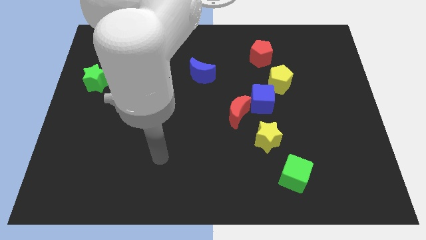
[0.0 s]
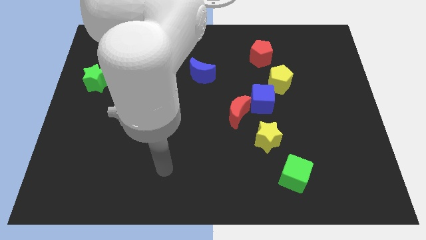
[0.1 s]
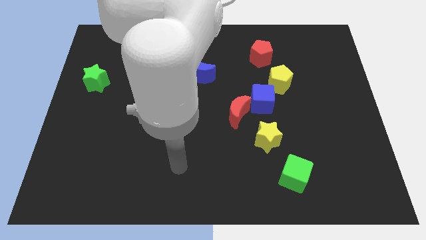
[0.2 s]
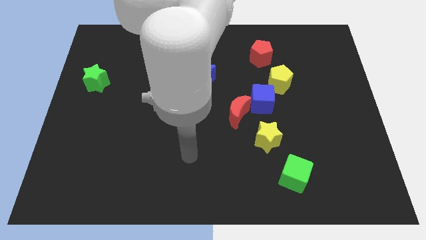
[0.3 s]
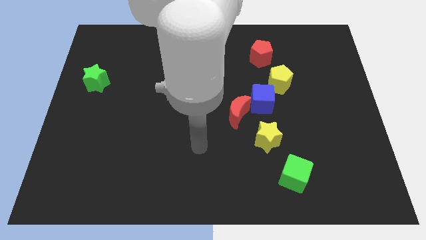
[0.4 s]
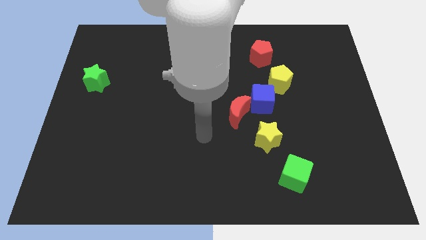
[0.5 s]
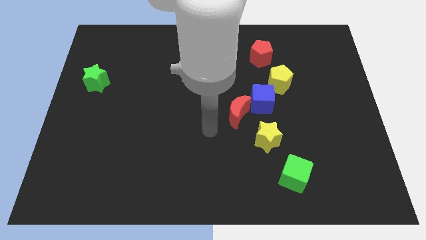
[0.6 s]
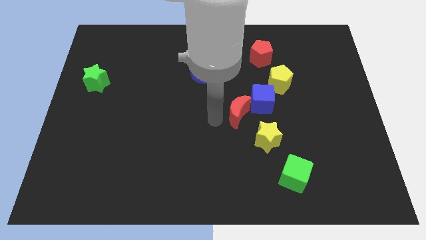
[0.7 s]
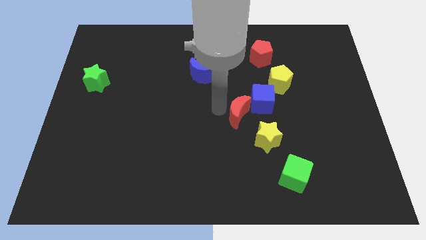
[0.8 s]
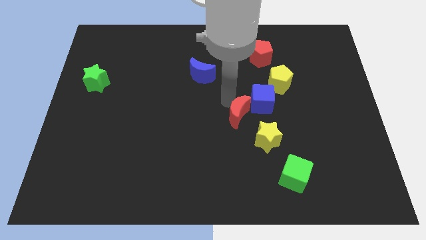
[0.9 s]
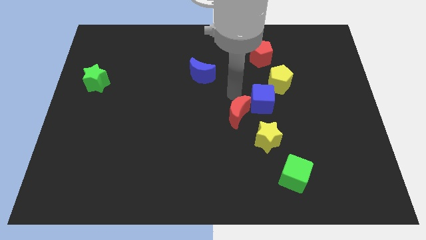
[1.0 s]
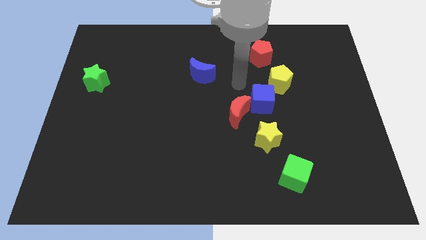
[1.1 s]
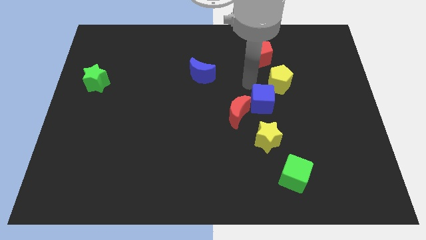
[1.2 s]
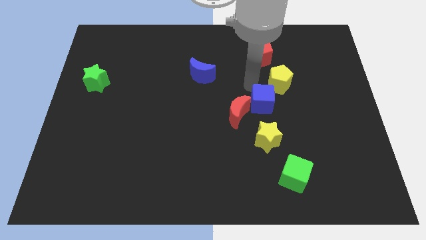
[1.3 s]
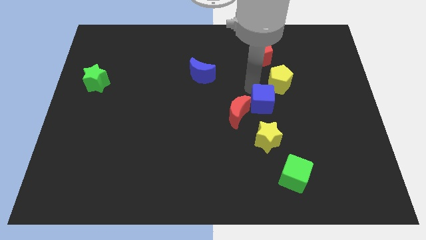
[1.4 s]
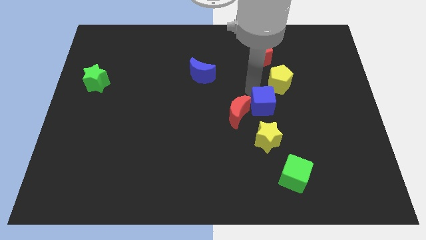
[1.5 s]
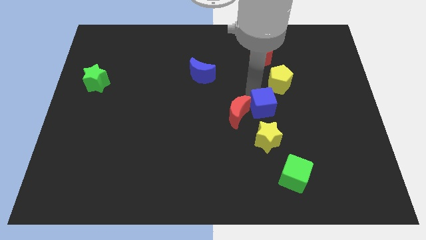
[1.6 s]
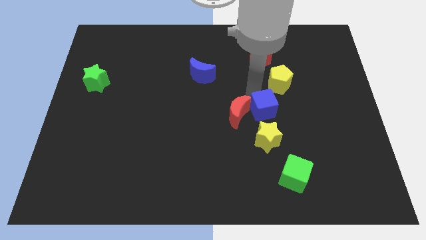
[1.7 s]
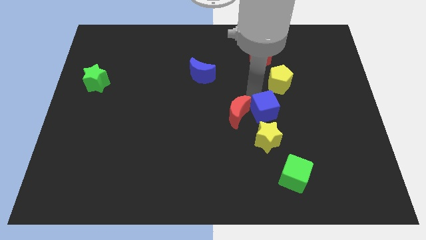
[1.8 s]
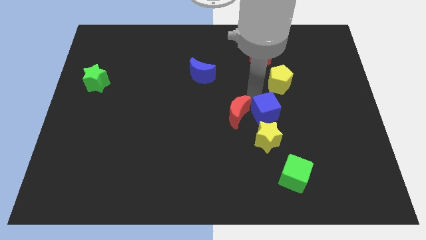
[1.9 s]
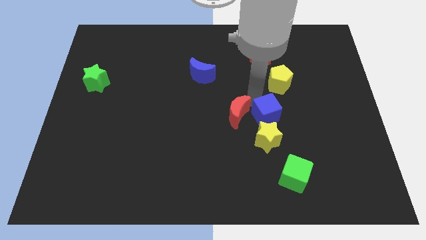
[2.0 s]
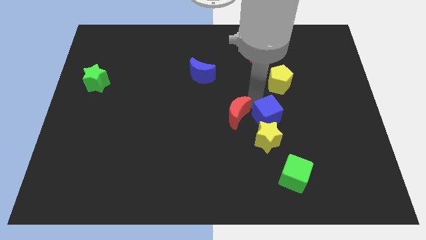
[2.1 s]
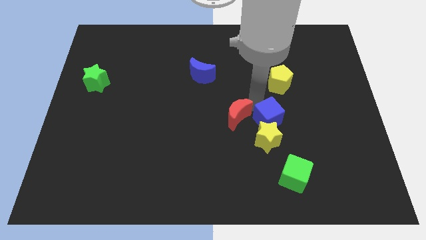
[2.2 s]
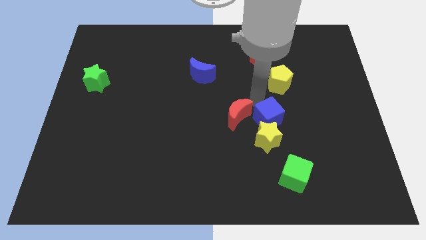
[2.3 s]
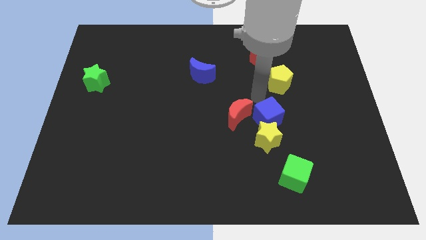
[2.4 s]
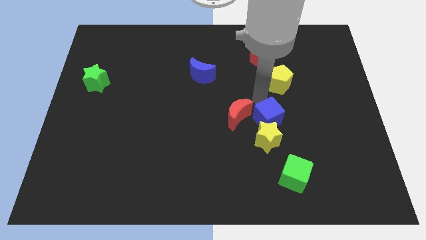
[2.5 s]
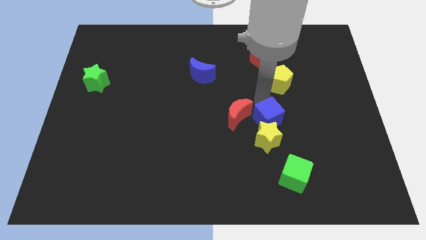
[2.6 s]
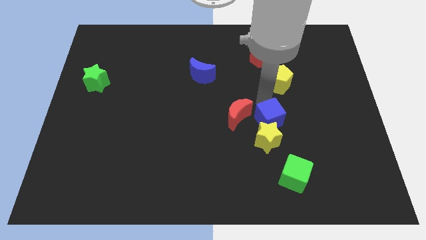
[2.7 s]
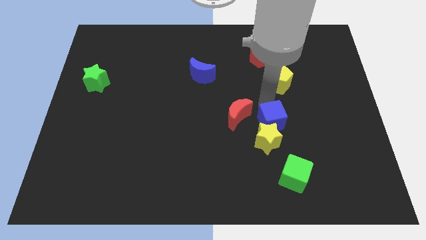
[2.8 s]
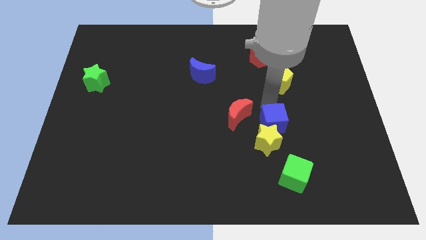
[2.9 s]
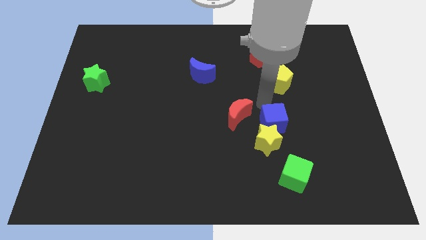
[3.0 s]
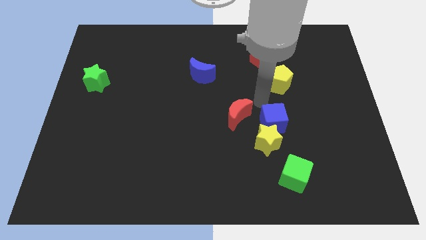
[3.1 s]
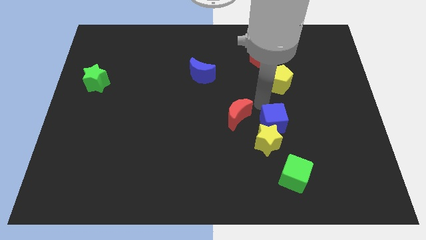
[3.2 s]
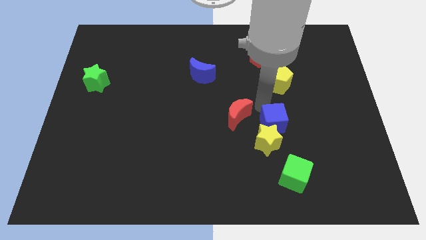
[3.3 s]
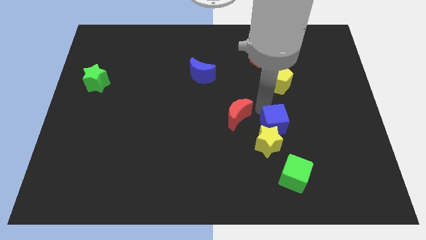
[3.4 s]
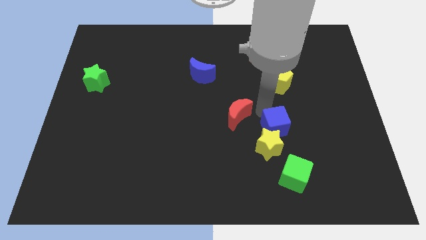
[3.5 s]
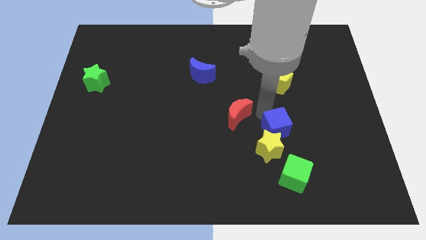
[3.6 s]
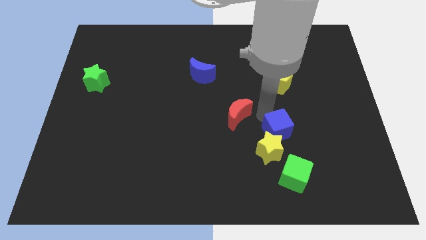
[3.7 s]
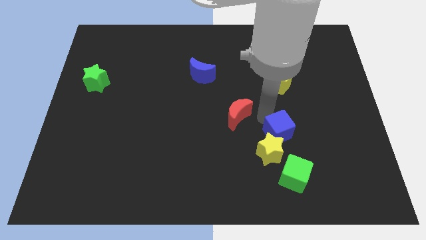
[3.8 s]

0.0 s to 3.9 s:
separate the blue cube from the red moon and yellow pentagon

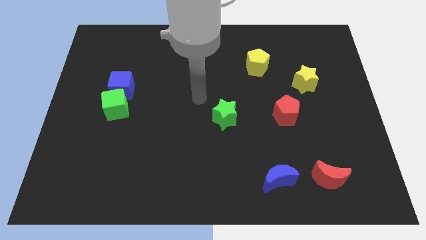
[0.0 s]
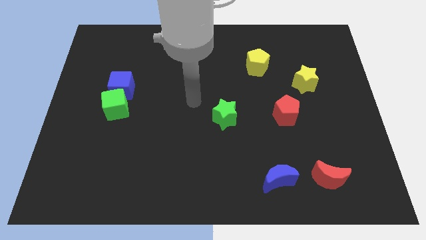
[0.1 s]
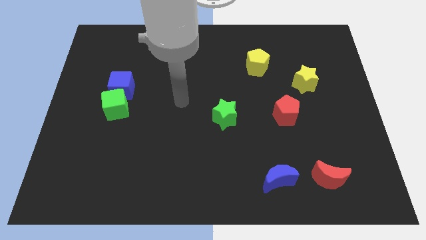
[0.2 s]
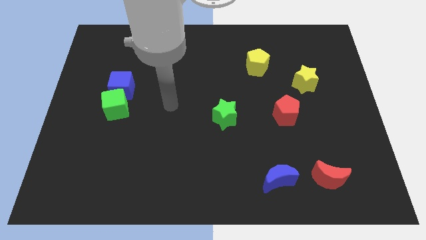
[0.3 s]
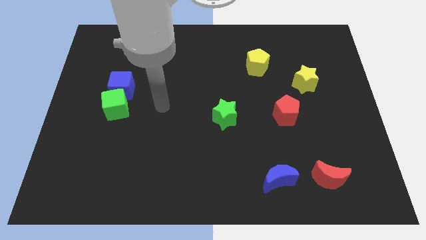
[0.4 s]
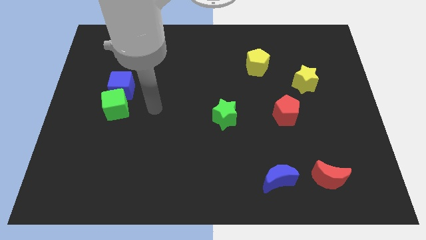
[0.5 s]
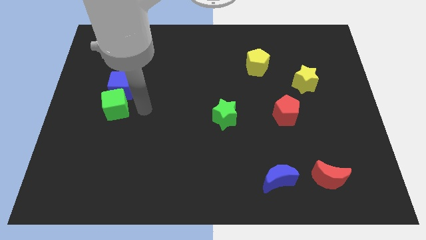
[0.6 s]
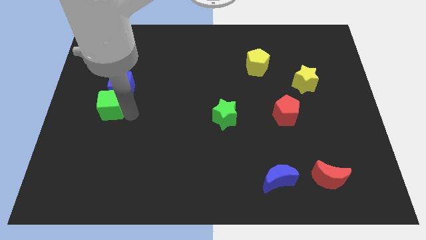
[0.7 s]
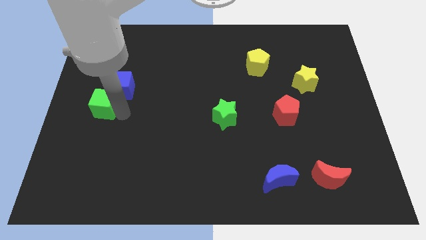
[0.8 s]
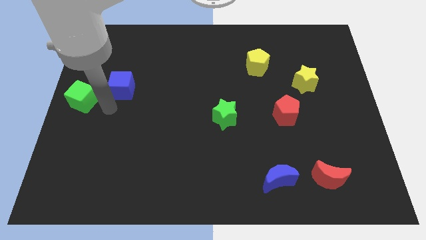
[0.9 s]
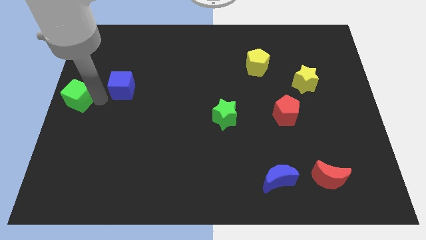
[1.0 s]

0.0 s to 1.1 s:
move the blue cube away from the green cube

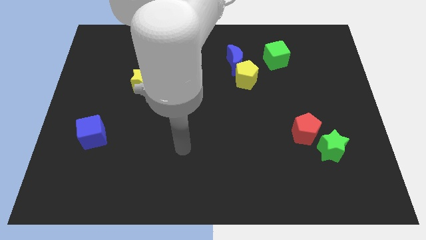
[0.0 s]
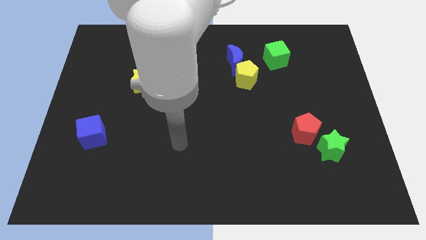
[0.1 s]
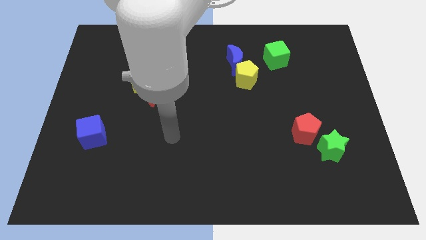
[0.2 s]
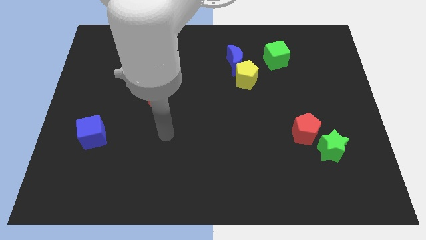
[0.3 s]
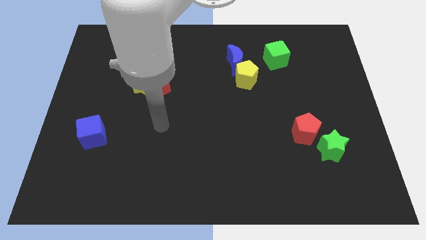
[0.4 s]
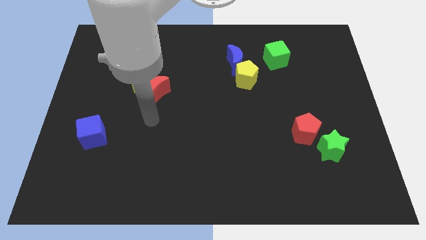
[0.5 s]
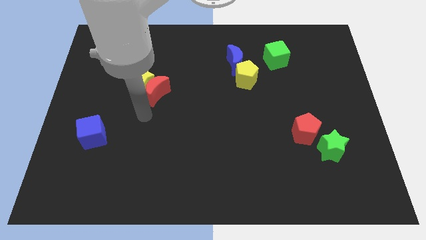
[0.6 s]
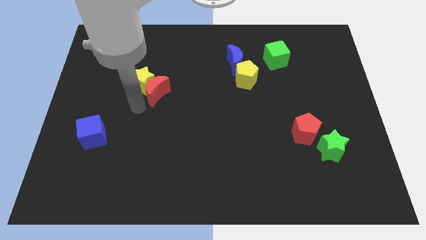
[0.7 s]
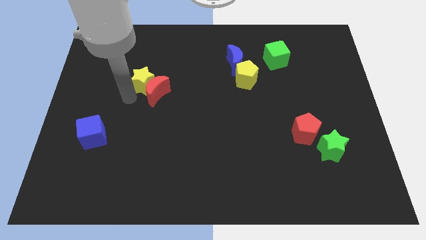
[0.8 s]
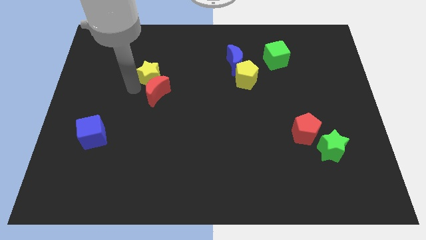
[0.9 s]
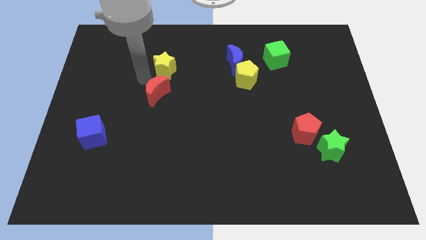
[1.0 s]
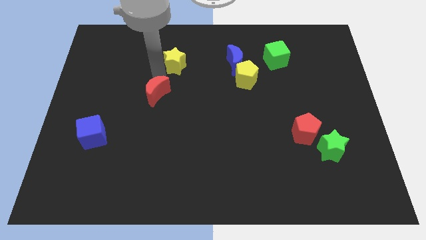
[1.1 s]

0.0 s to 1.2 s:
pull the red moon apart from the yellow star

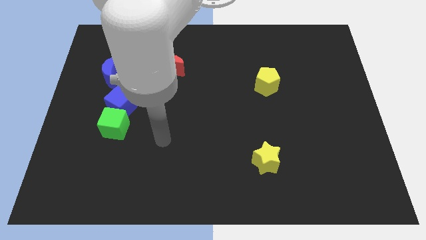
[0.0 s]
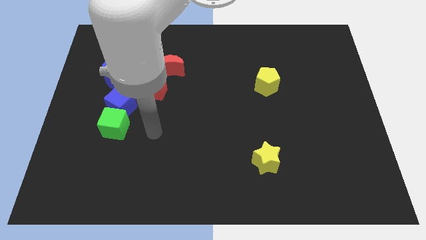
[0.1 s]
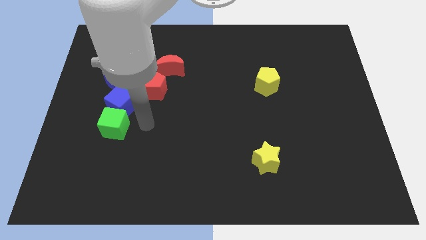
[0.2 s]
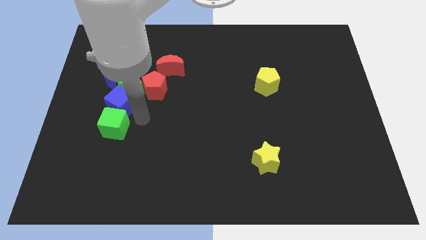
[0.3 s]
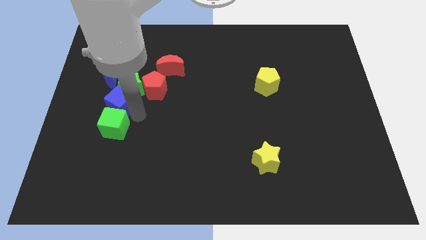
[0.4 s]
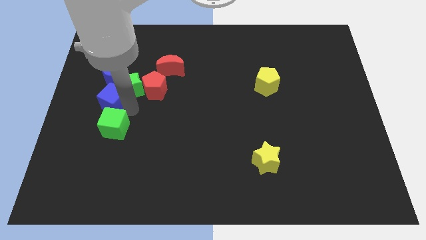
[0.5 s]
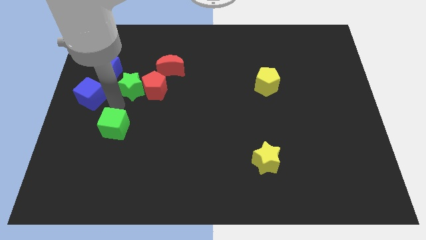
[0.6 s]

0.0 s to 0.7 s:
separate the green cube from the blue cube

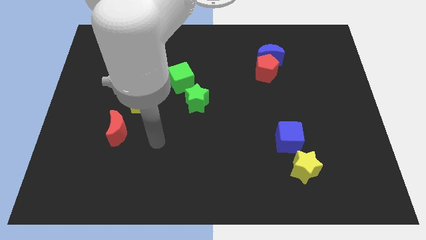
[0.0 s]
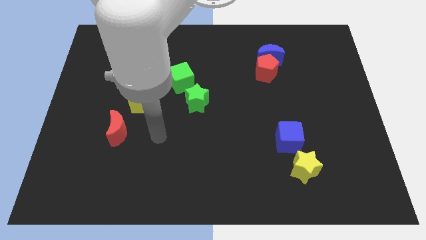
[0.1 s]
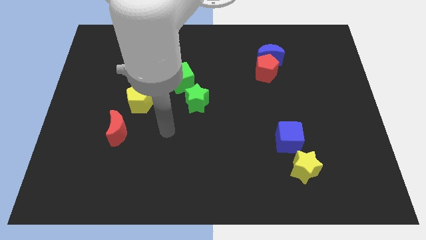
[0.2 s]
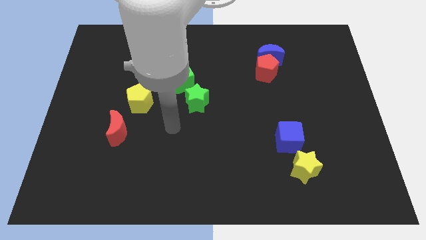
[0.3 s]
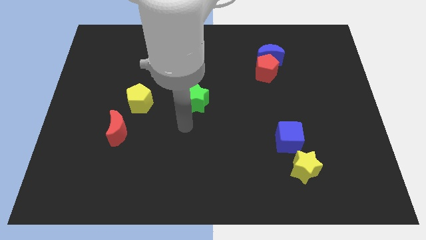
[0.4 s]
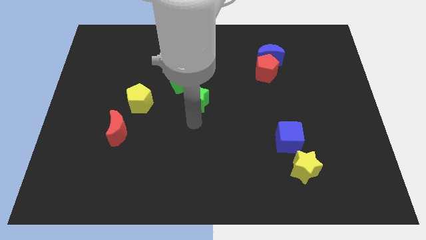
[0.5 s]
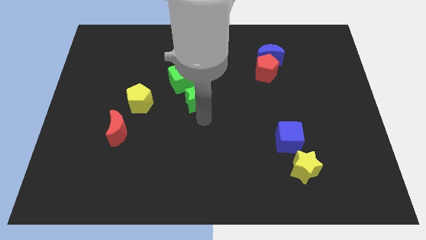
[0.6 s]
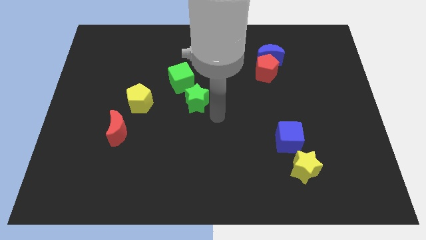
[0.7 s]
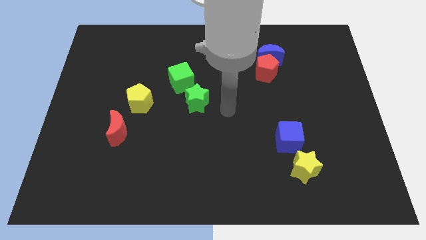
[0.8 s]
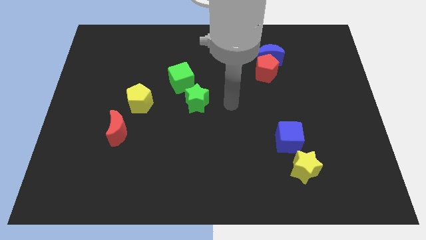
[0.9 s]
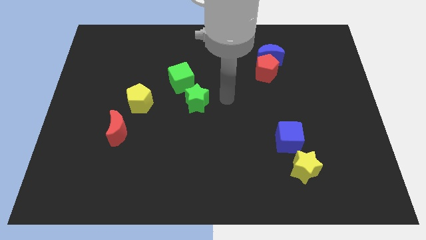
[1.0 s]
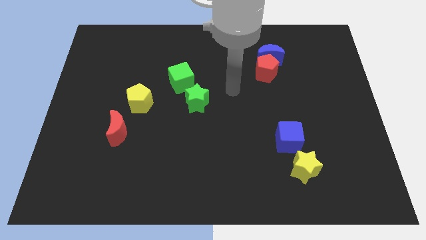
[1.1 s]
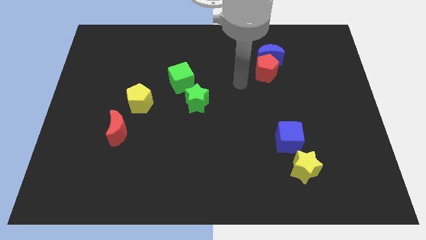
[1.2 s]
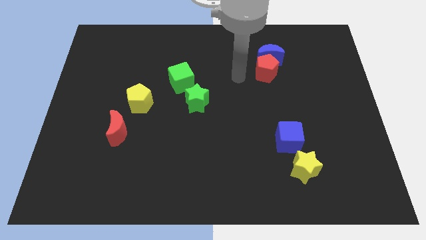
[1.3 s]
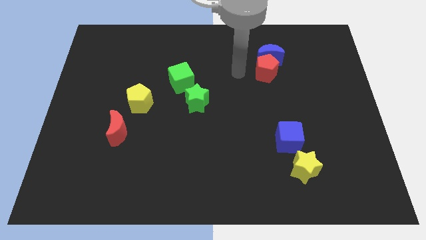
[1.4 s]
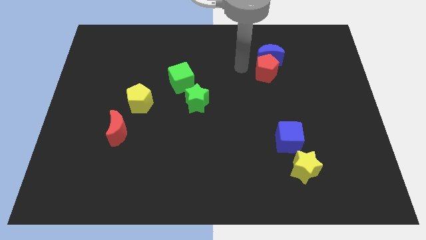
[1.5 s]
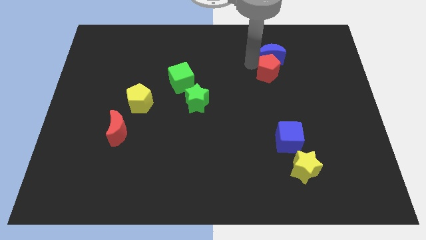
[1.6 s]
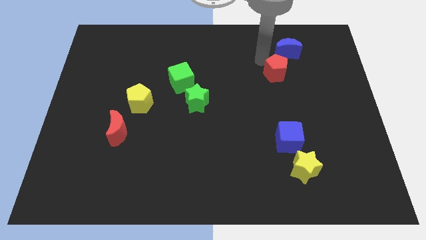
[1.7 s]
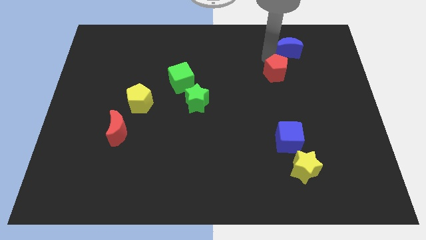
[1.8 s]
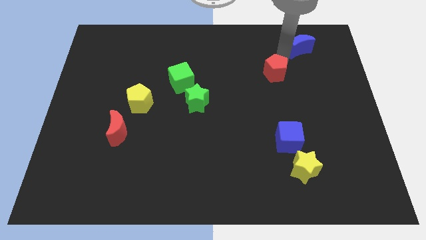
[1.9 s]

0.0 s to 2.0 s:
pull the red pentagon apart from the blue moon

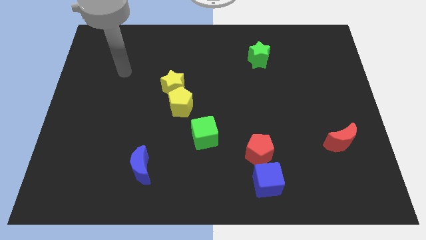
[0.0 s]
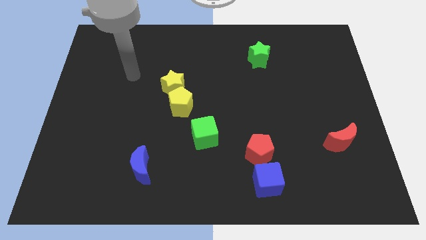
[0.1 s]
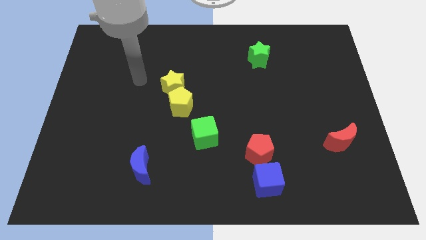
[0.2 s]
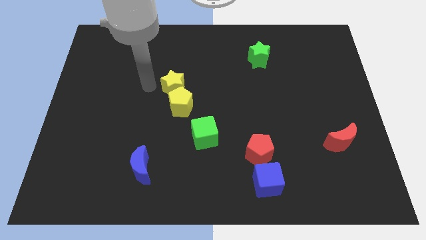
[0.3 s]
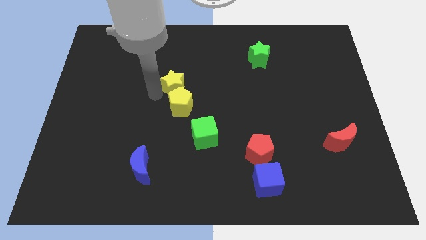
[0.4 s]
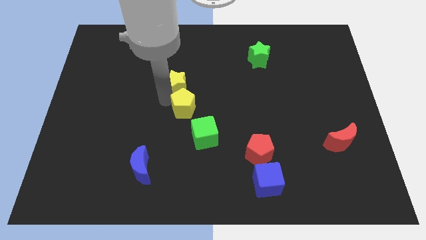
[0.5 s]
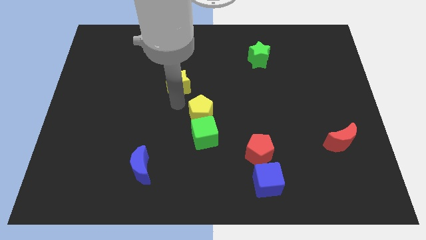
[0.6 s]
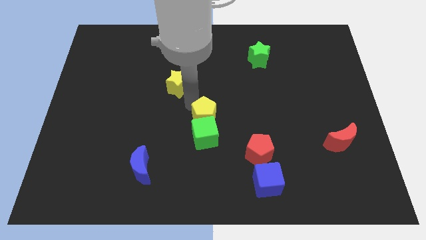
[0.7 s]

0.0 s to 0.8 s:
move the yellow star away from the yellow pentagon
